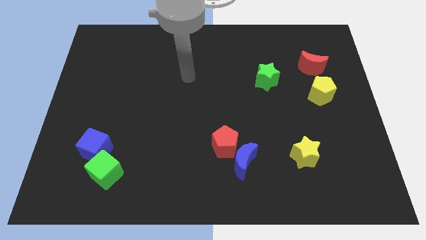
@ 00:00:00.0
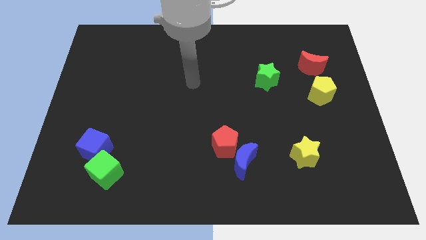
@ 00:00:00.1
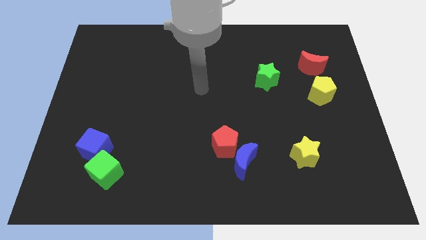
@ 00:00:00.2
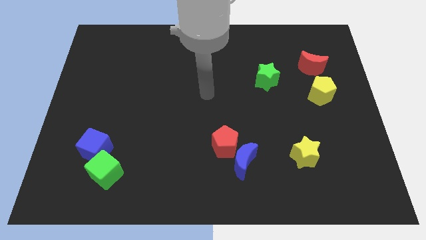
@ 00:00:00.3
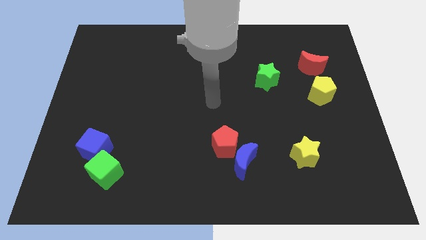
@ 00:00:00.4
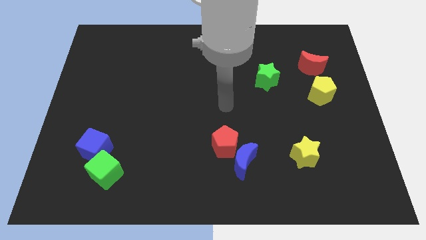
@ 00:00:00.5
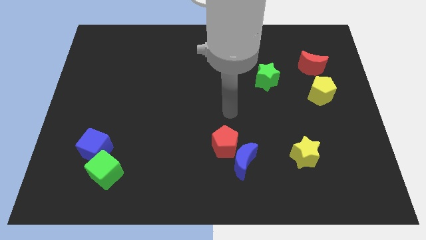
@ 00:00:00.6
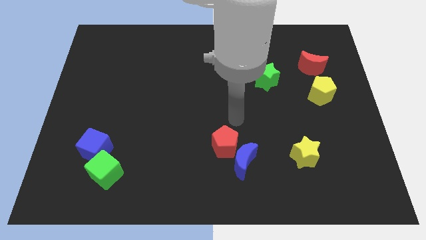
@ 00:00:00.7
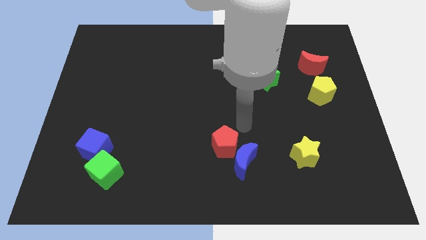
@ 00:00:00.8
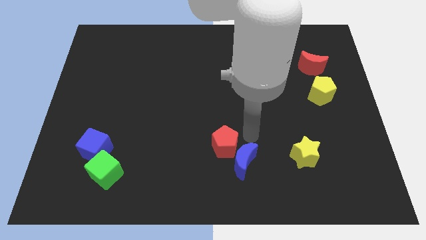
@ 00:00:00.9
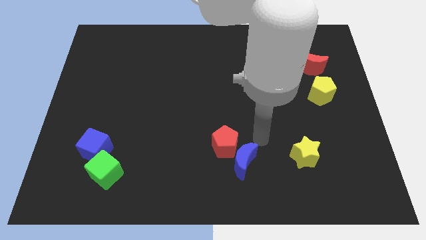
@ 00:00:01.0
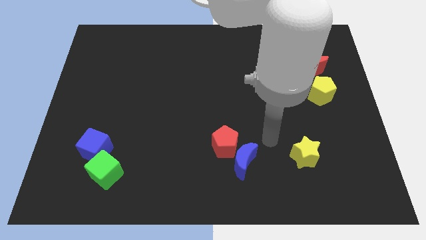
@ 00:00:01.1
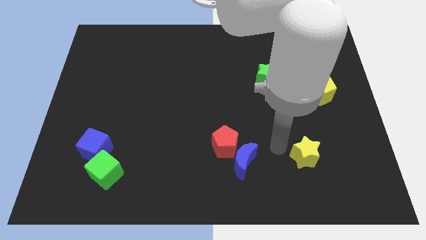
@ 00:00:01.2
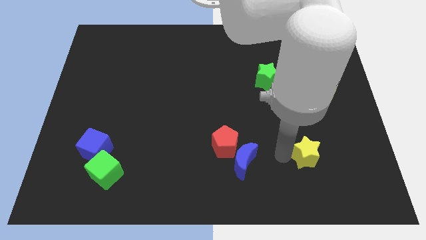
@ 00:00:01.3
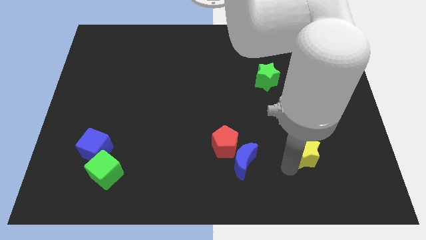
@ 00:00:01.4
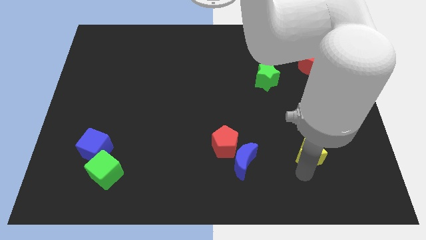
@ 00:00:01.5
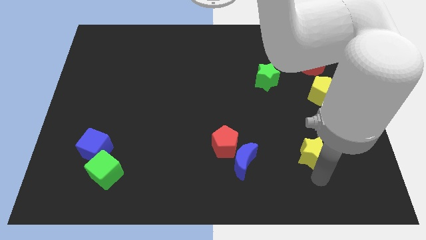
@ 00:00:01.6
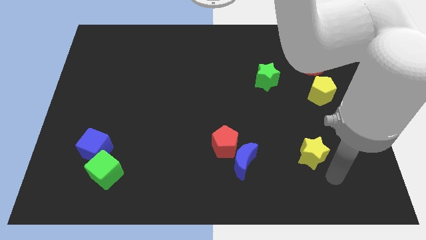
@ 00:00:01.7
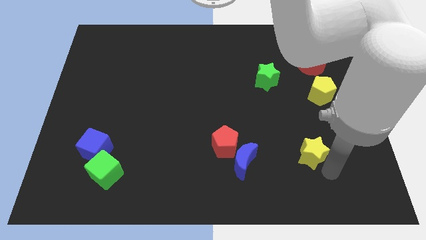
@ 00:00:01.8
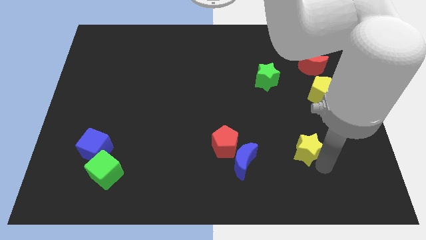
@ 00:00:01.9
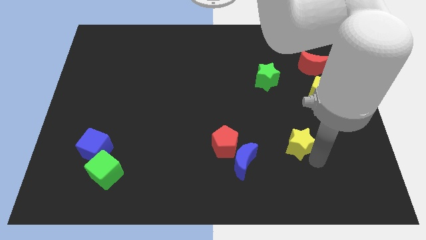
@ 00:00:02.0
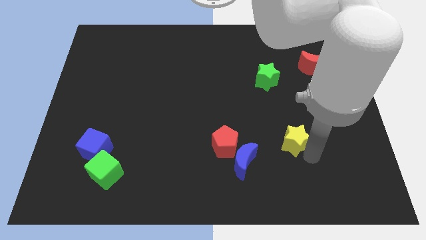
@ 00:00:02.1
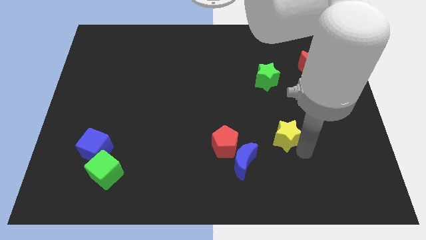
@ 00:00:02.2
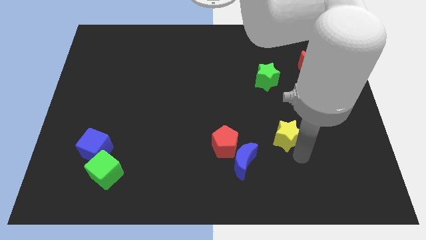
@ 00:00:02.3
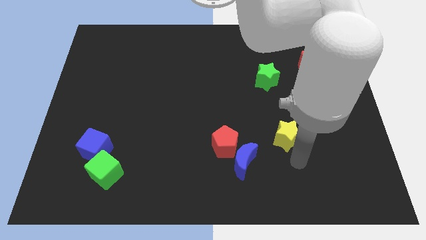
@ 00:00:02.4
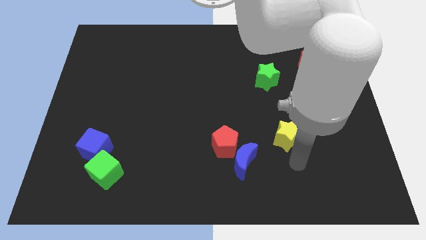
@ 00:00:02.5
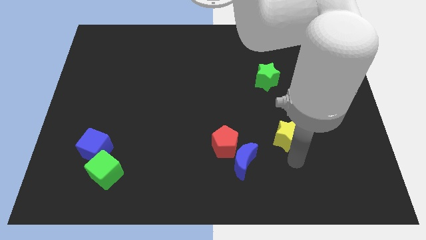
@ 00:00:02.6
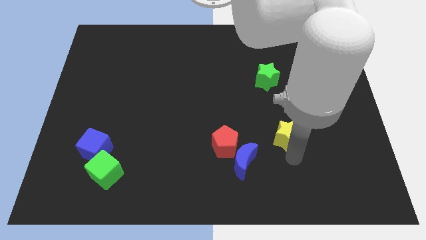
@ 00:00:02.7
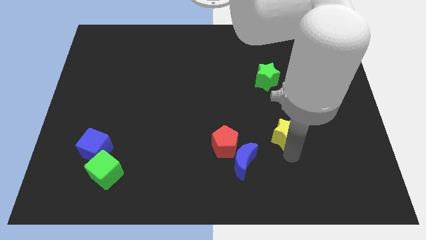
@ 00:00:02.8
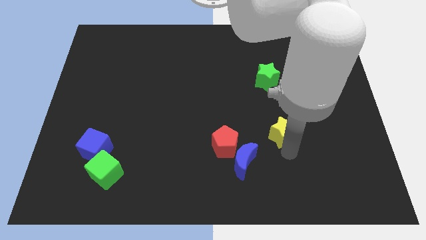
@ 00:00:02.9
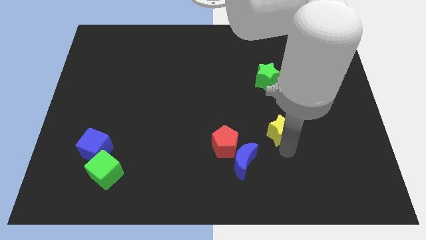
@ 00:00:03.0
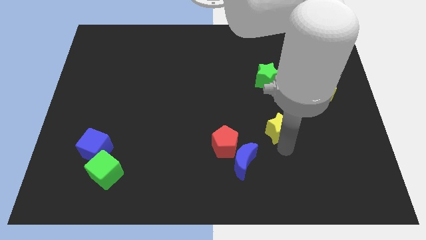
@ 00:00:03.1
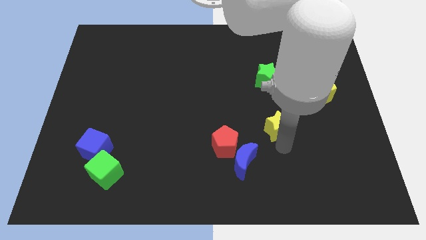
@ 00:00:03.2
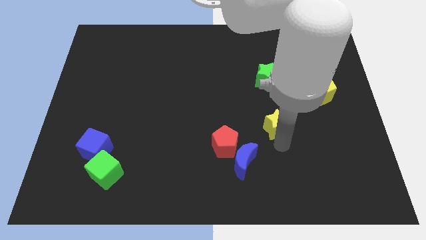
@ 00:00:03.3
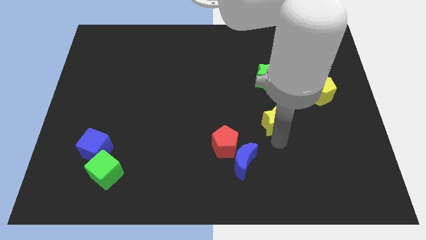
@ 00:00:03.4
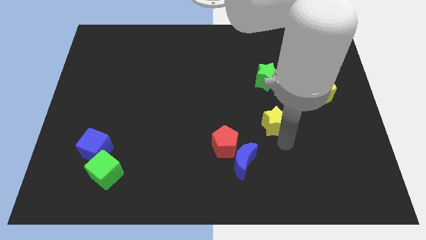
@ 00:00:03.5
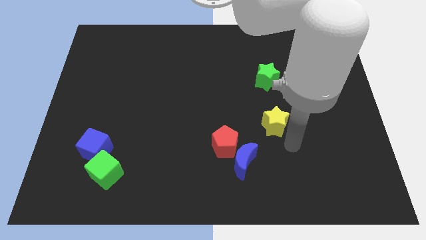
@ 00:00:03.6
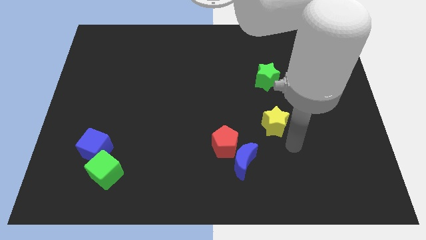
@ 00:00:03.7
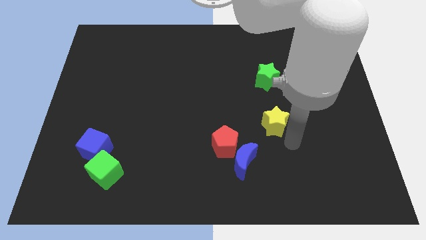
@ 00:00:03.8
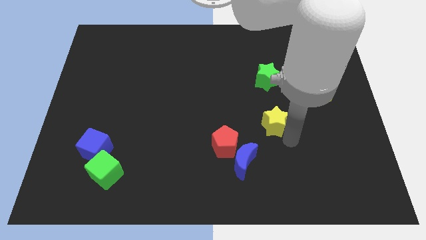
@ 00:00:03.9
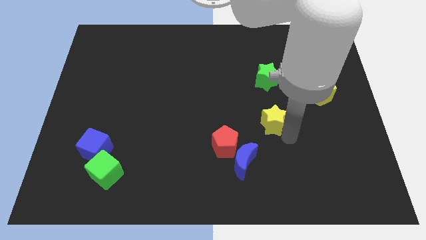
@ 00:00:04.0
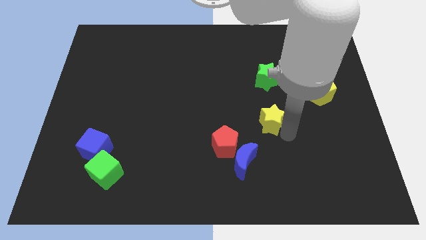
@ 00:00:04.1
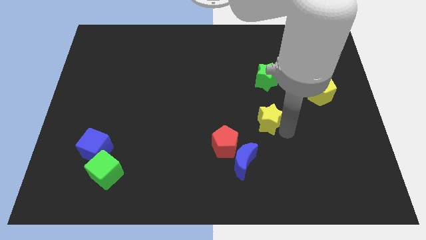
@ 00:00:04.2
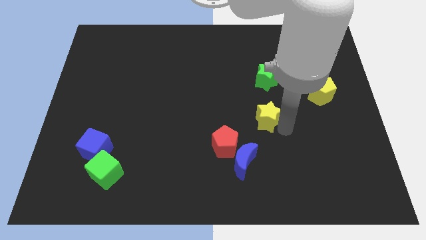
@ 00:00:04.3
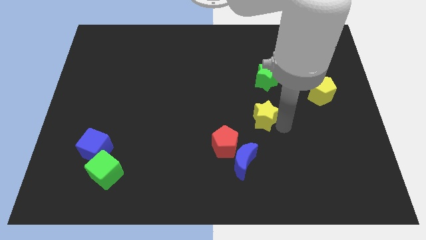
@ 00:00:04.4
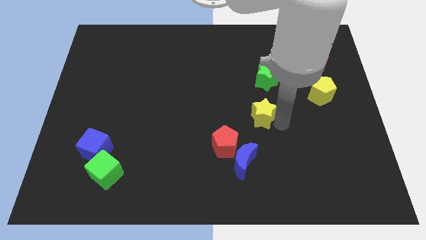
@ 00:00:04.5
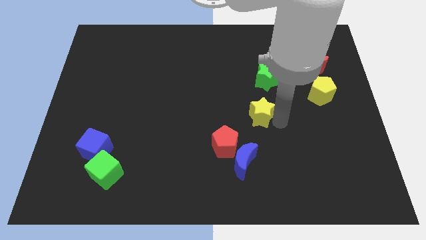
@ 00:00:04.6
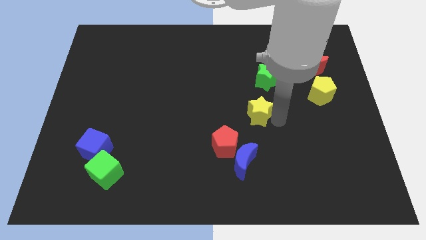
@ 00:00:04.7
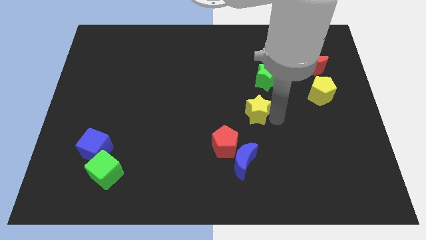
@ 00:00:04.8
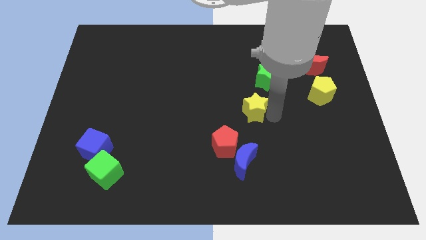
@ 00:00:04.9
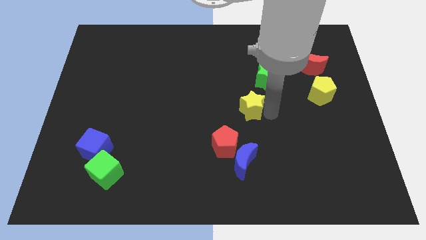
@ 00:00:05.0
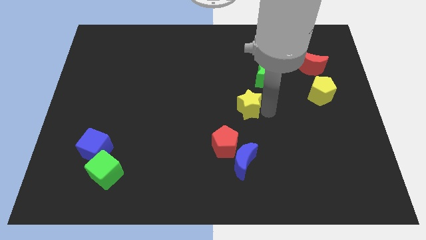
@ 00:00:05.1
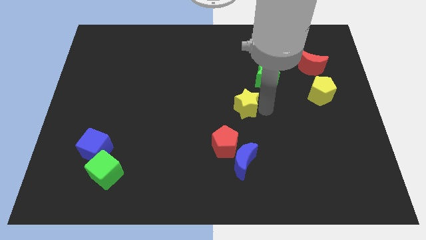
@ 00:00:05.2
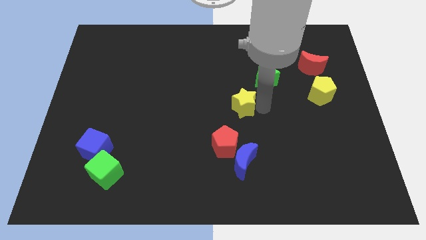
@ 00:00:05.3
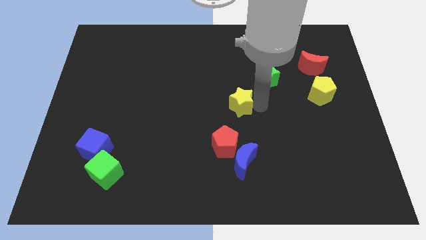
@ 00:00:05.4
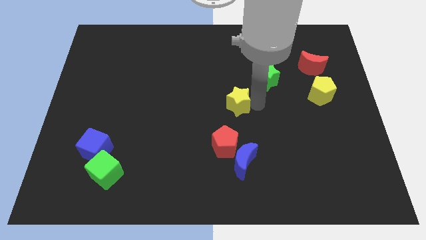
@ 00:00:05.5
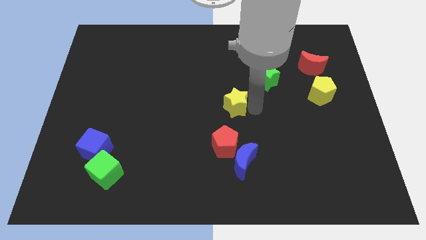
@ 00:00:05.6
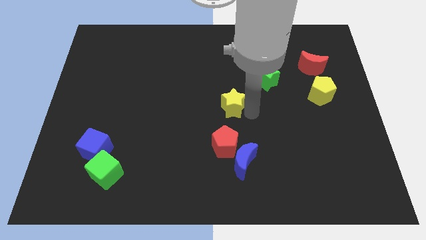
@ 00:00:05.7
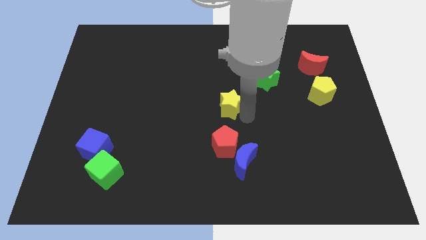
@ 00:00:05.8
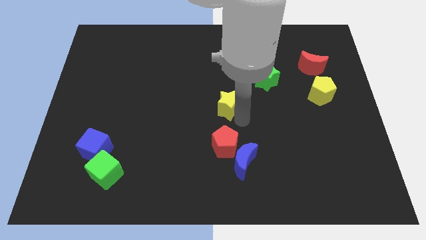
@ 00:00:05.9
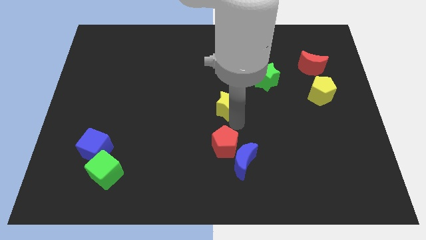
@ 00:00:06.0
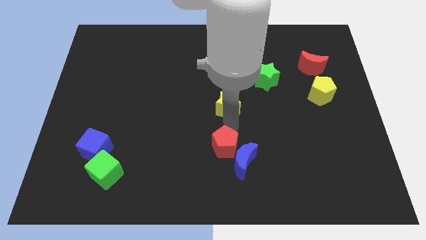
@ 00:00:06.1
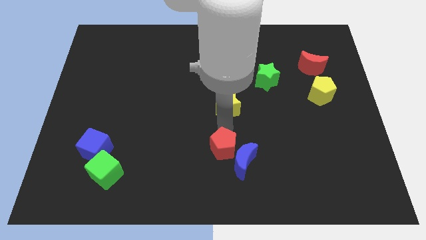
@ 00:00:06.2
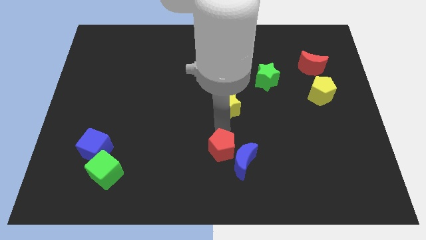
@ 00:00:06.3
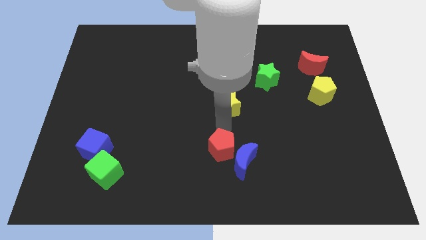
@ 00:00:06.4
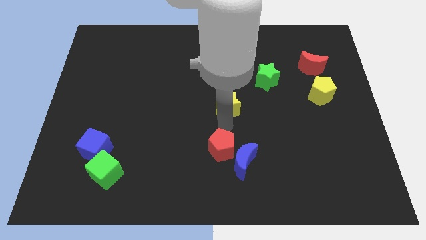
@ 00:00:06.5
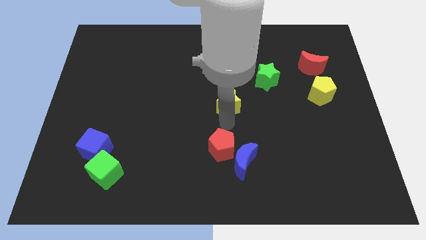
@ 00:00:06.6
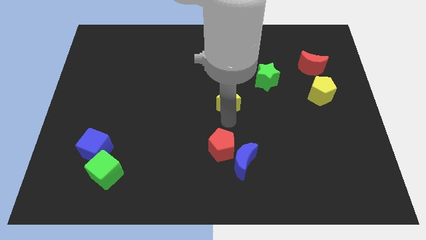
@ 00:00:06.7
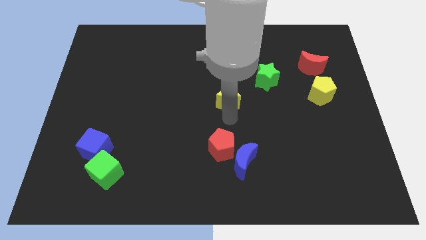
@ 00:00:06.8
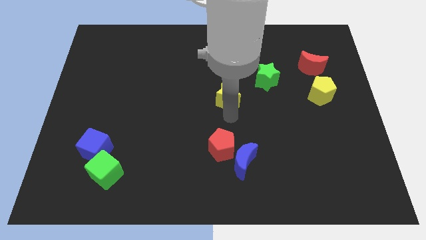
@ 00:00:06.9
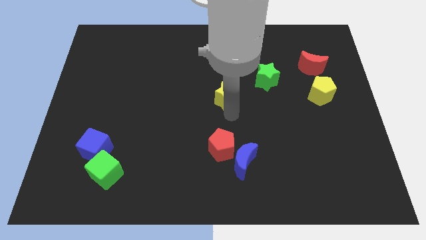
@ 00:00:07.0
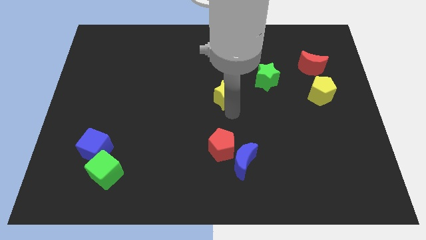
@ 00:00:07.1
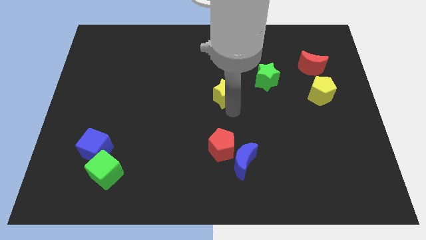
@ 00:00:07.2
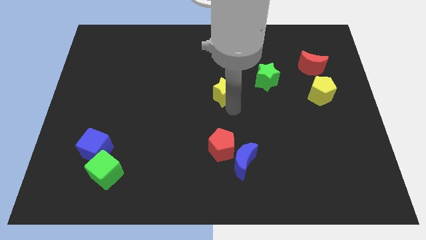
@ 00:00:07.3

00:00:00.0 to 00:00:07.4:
push the yellow star just left of the green star
